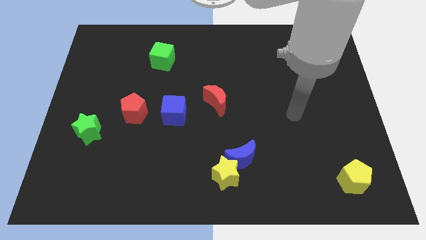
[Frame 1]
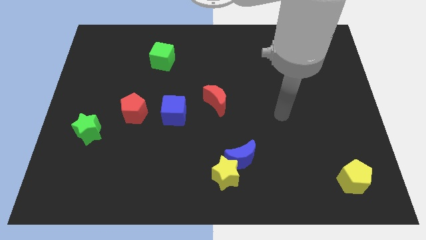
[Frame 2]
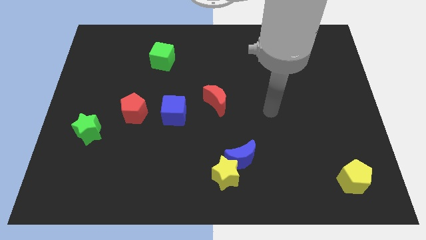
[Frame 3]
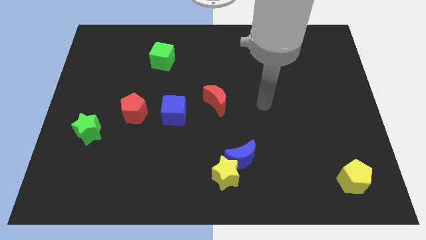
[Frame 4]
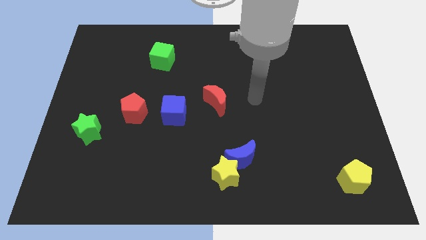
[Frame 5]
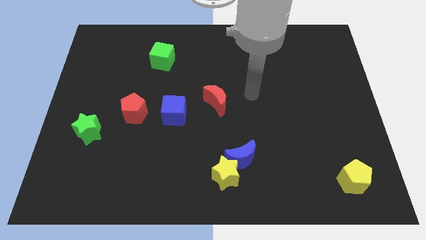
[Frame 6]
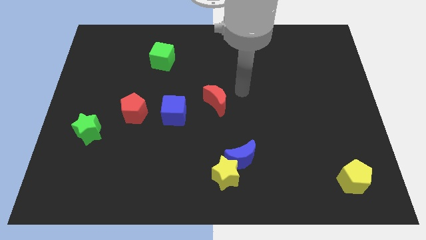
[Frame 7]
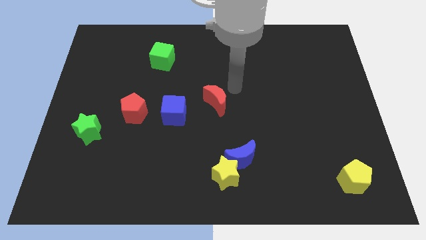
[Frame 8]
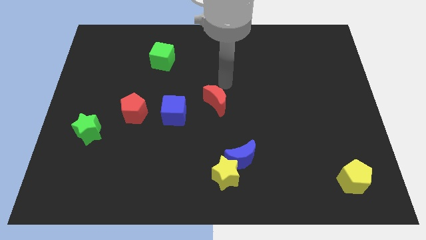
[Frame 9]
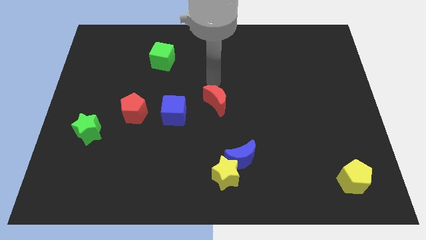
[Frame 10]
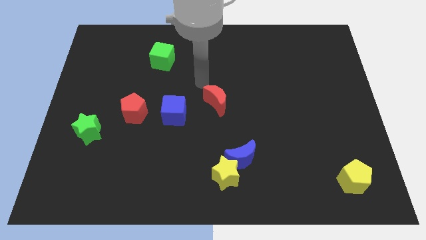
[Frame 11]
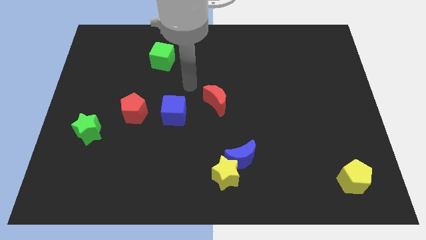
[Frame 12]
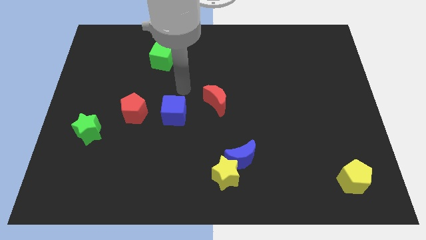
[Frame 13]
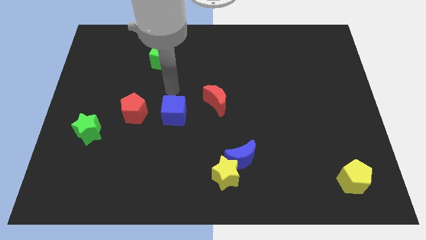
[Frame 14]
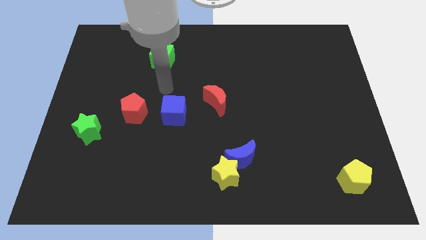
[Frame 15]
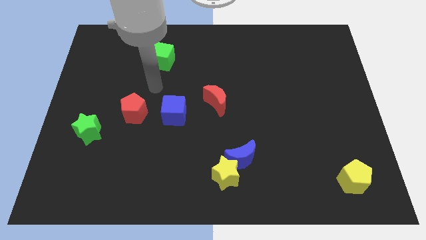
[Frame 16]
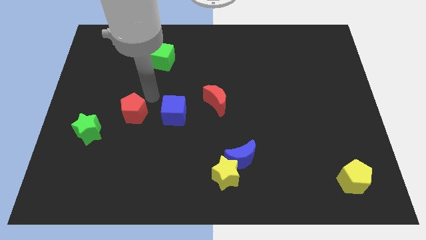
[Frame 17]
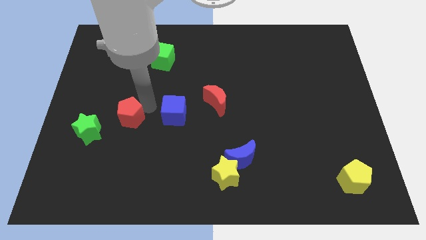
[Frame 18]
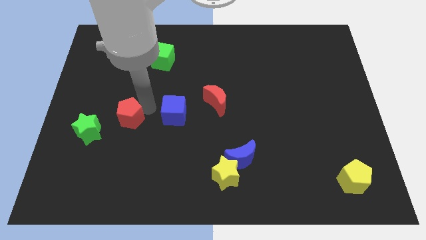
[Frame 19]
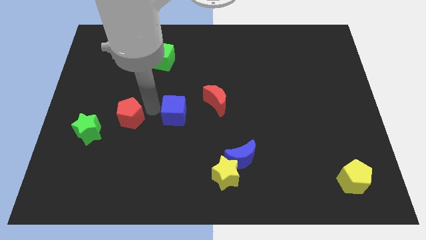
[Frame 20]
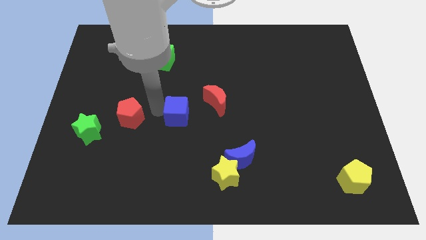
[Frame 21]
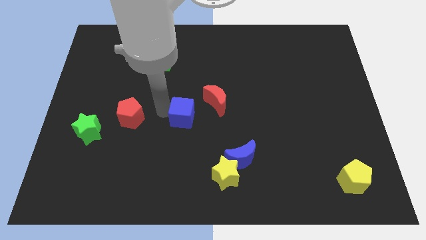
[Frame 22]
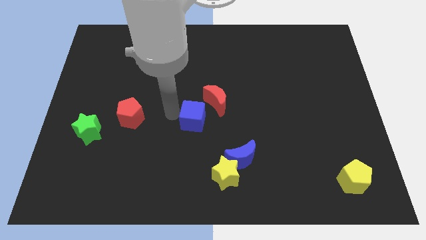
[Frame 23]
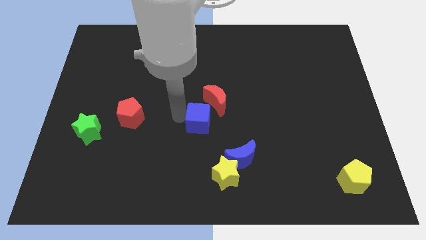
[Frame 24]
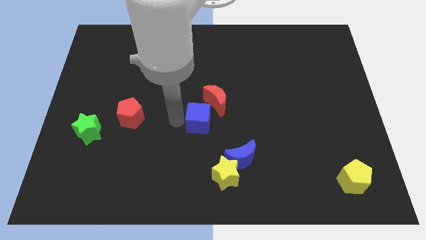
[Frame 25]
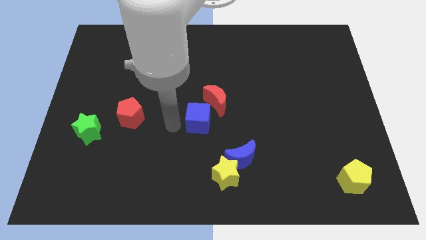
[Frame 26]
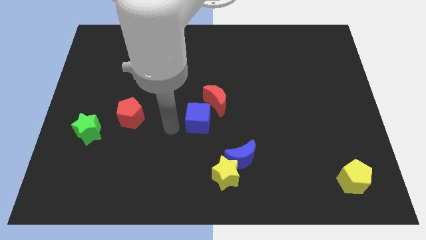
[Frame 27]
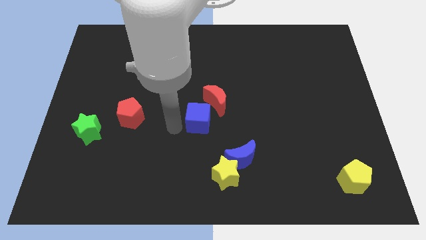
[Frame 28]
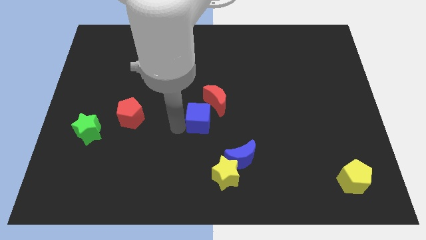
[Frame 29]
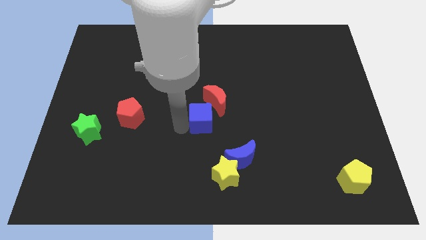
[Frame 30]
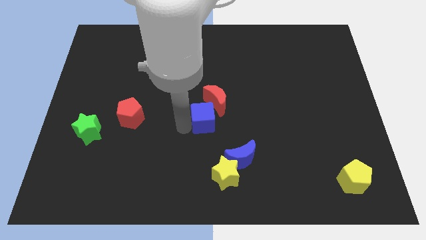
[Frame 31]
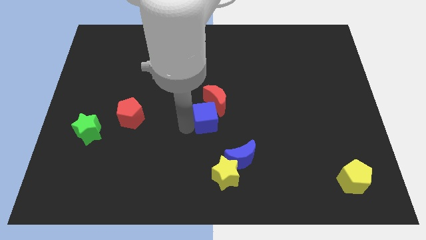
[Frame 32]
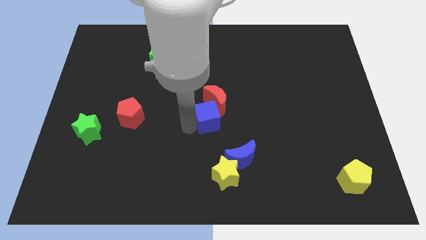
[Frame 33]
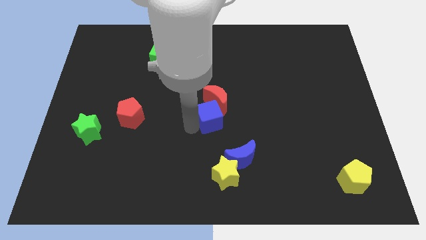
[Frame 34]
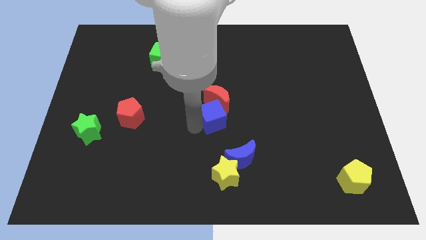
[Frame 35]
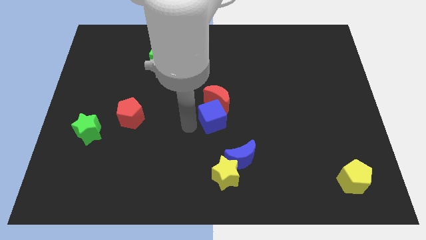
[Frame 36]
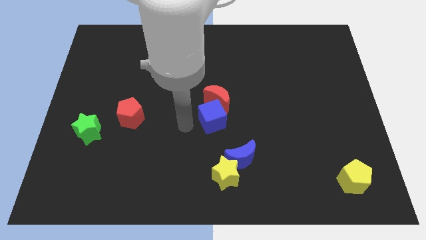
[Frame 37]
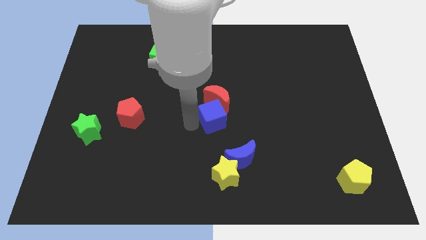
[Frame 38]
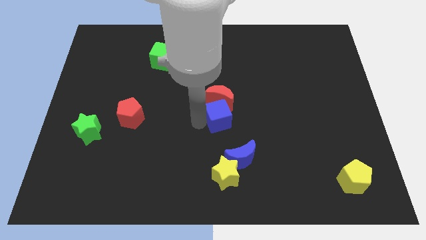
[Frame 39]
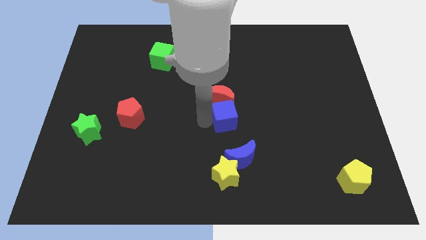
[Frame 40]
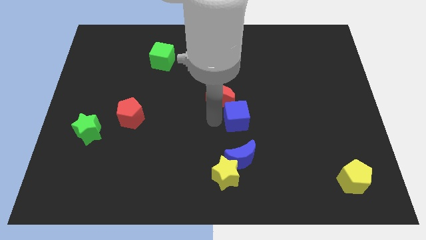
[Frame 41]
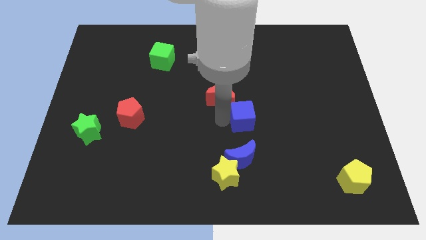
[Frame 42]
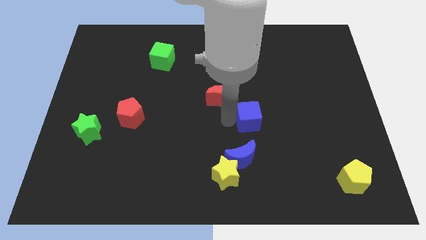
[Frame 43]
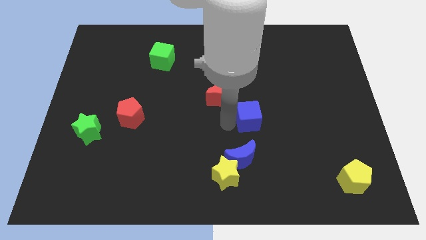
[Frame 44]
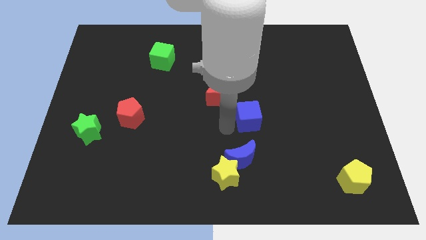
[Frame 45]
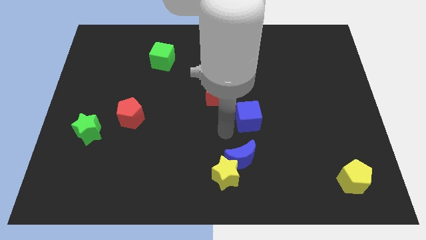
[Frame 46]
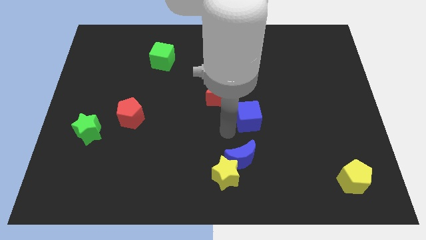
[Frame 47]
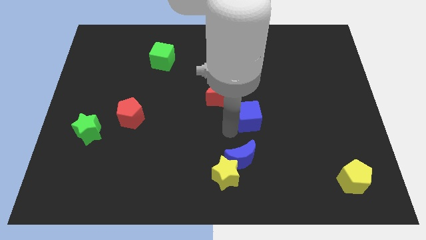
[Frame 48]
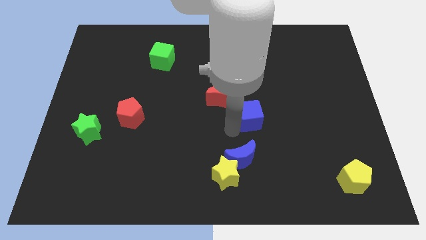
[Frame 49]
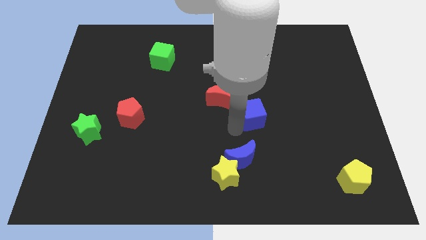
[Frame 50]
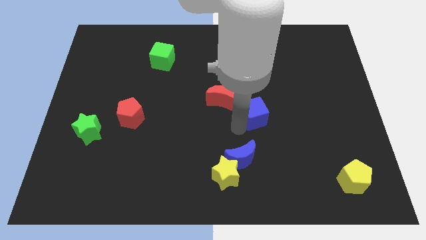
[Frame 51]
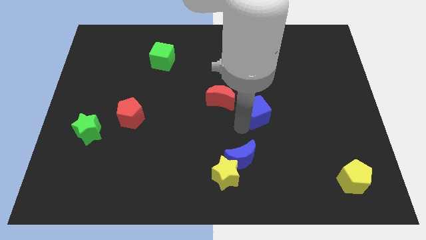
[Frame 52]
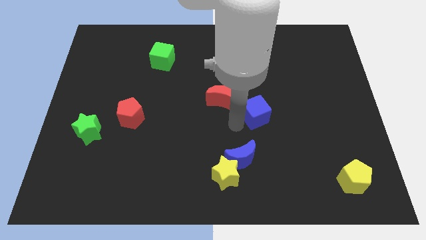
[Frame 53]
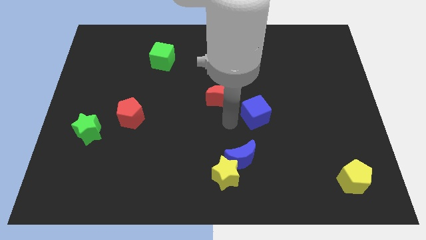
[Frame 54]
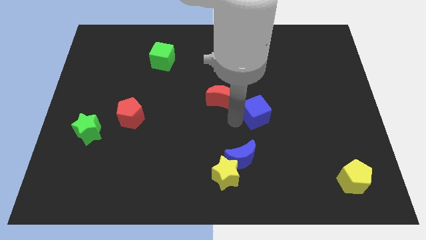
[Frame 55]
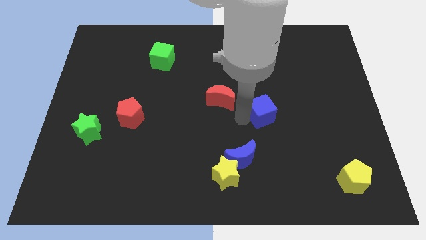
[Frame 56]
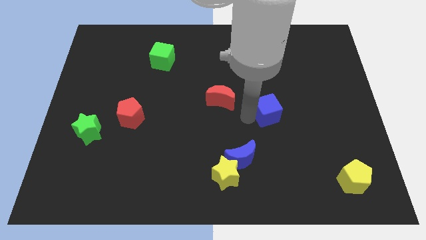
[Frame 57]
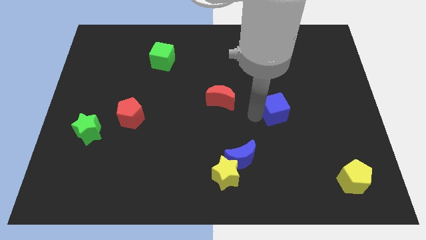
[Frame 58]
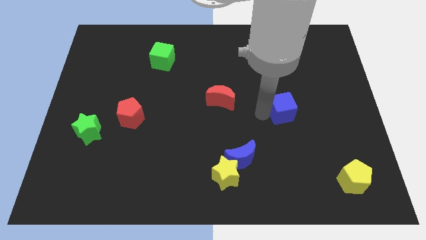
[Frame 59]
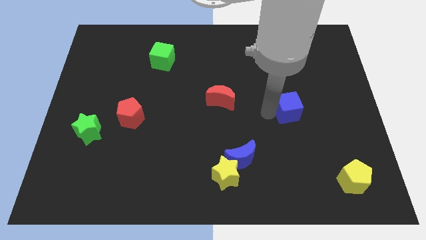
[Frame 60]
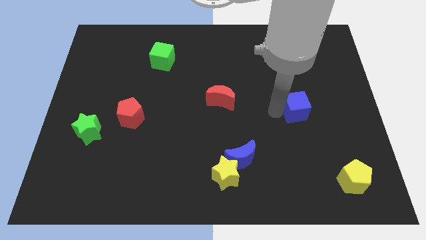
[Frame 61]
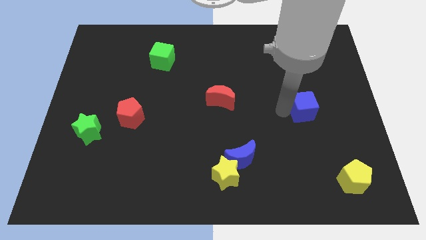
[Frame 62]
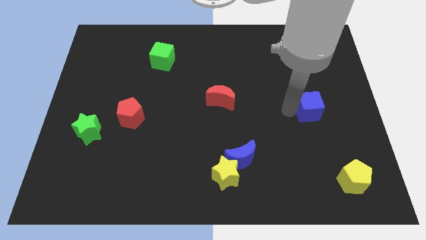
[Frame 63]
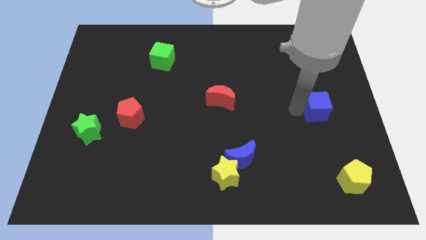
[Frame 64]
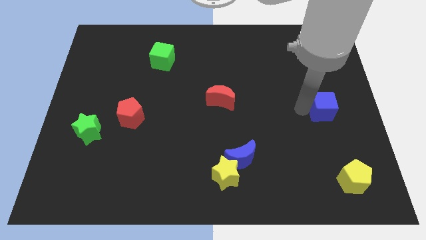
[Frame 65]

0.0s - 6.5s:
move the blue cube to the right side of the board
